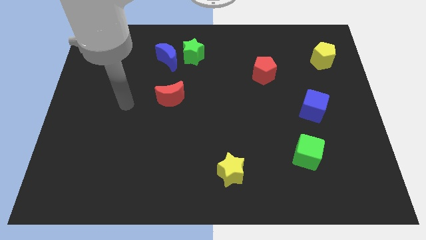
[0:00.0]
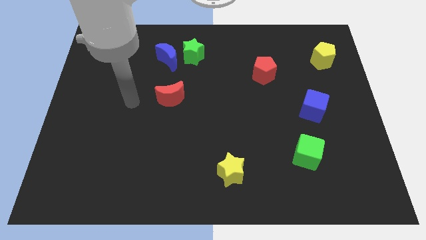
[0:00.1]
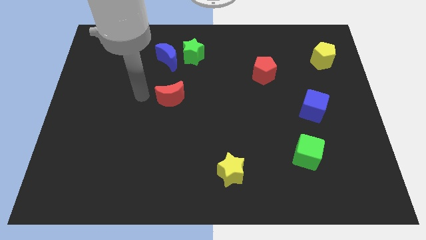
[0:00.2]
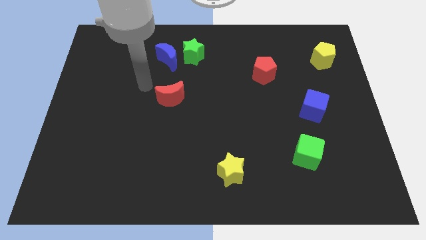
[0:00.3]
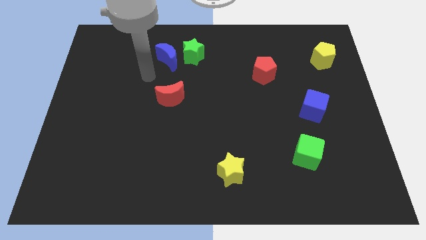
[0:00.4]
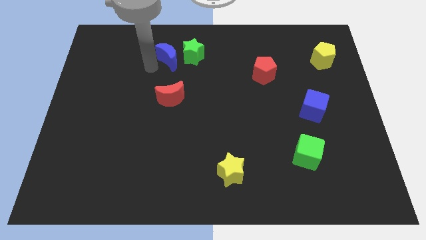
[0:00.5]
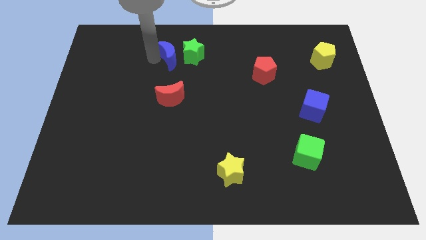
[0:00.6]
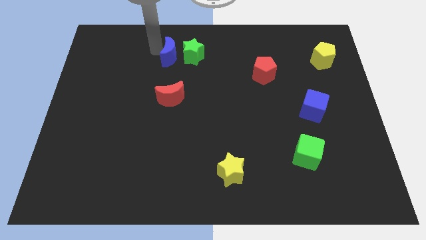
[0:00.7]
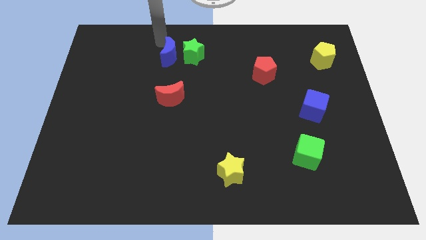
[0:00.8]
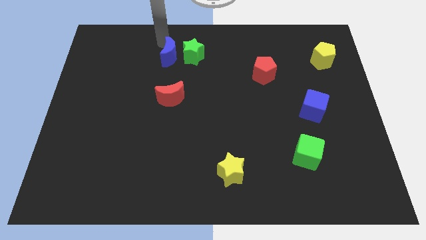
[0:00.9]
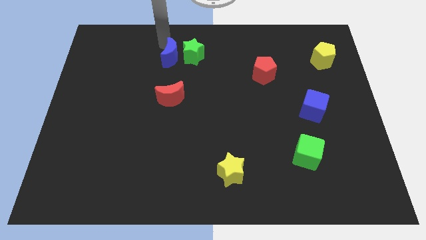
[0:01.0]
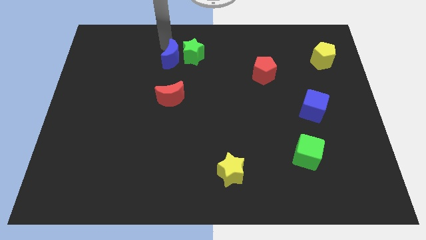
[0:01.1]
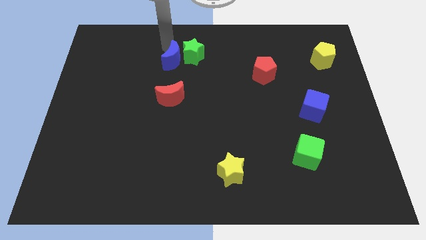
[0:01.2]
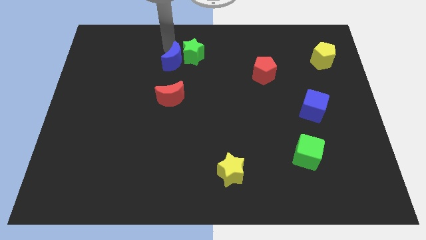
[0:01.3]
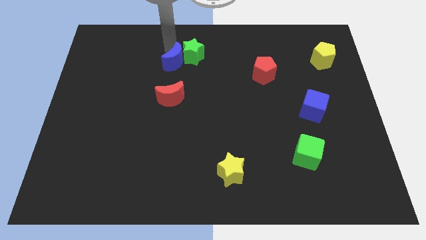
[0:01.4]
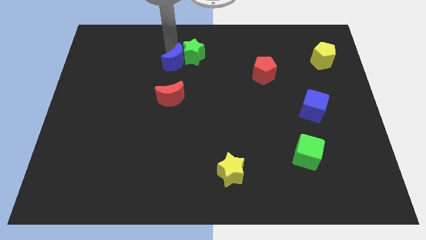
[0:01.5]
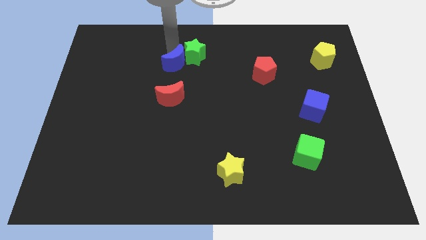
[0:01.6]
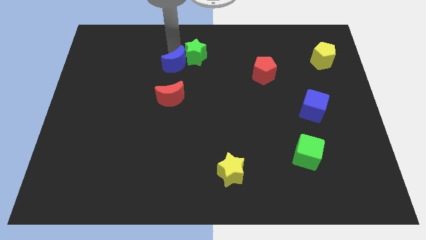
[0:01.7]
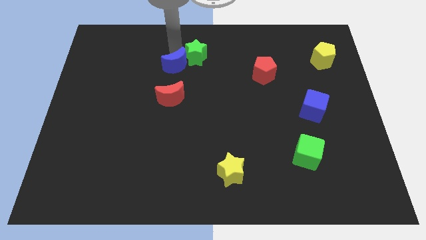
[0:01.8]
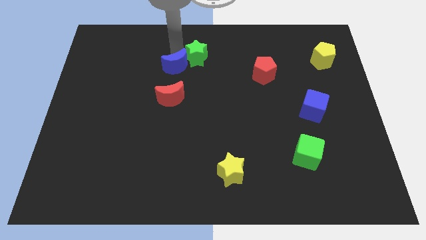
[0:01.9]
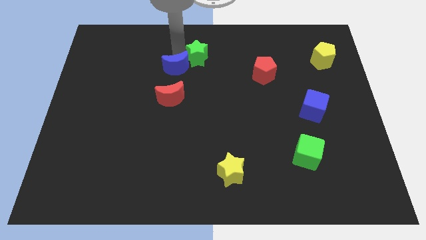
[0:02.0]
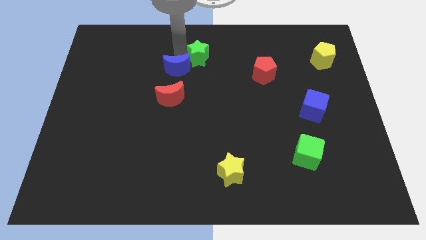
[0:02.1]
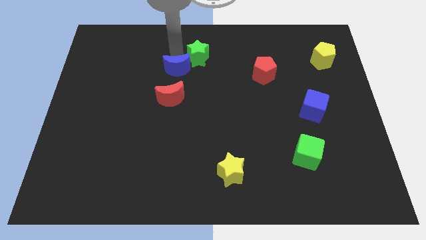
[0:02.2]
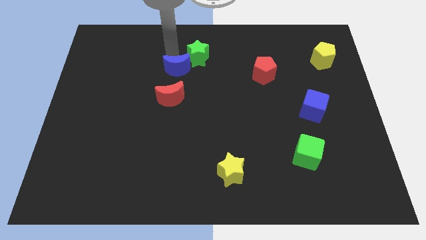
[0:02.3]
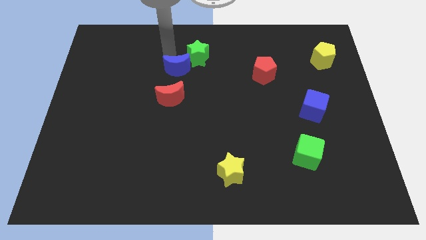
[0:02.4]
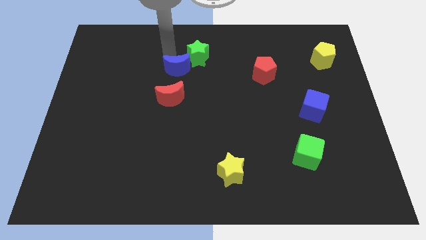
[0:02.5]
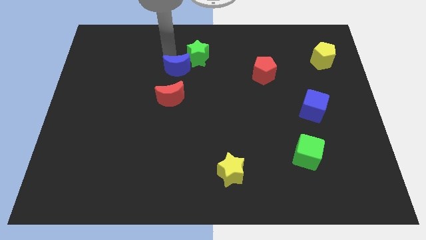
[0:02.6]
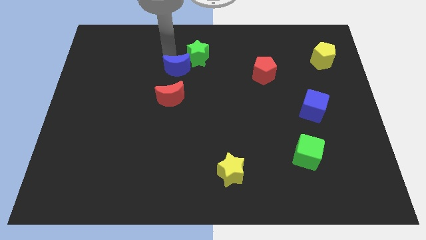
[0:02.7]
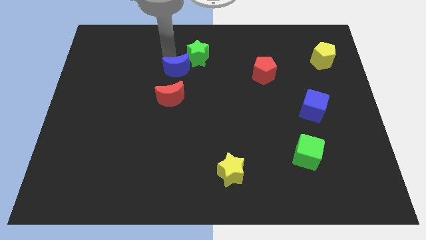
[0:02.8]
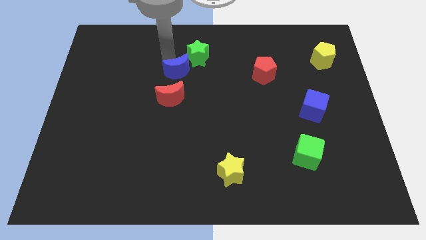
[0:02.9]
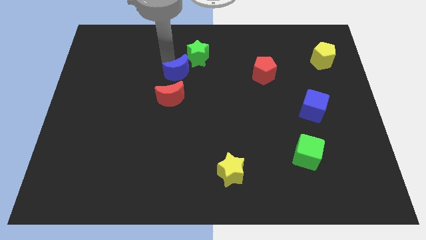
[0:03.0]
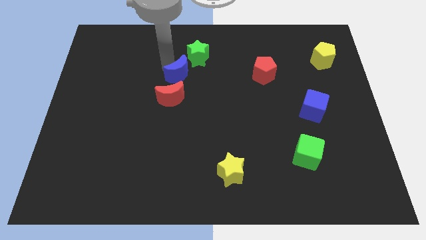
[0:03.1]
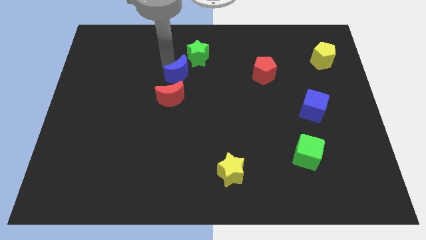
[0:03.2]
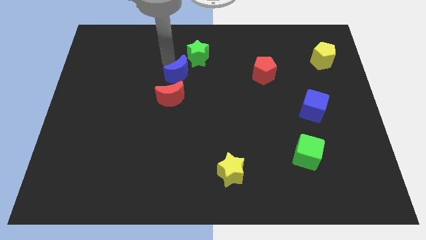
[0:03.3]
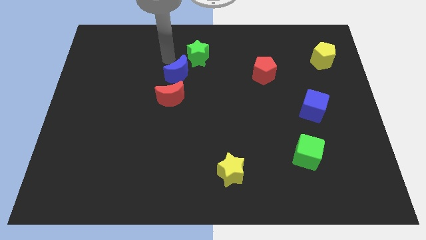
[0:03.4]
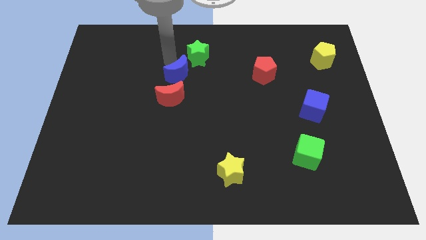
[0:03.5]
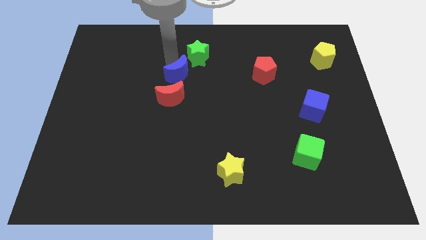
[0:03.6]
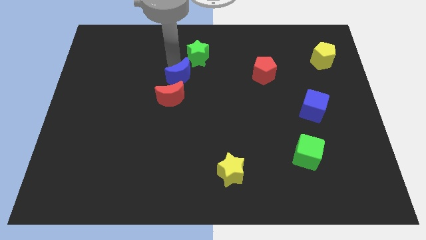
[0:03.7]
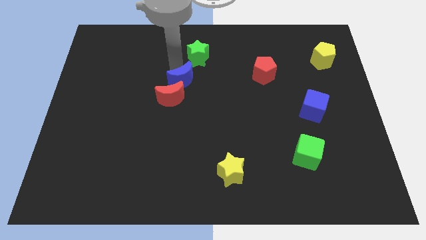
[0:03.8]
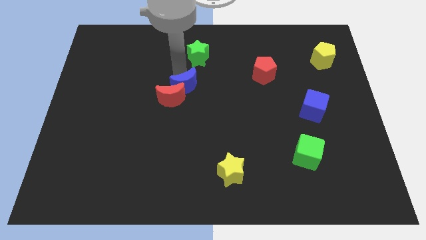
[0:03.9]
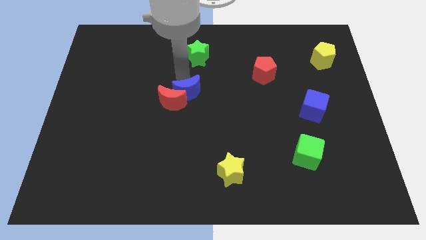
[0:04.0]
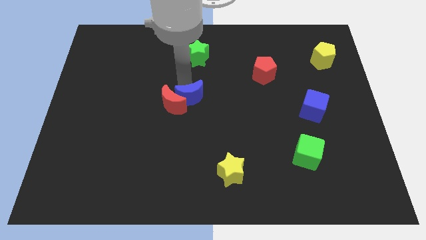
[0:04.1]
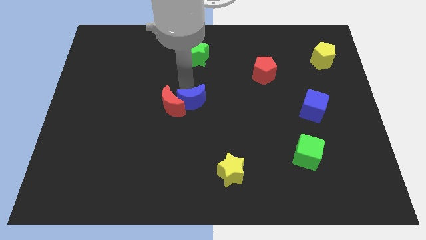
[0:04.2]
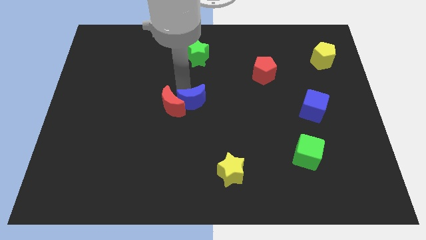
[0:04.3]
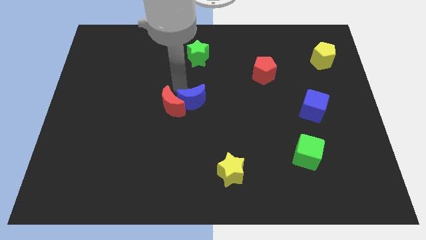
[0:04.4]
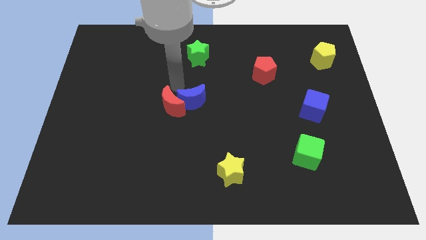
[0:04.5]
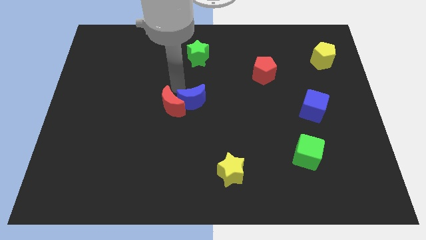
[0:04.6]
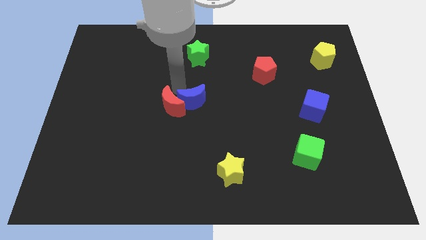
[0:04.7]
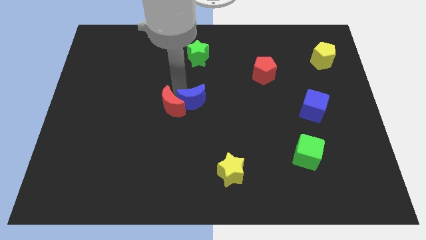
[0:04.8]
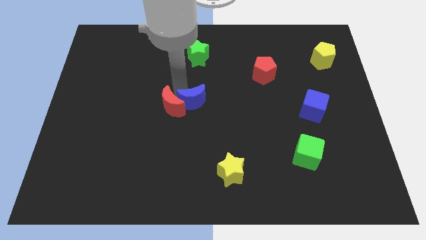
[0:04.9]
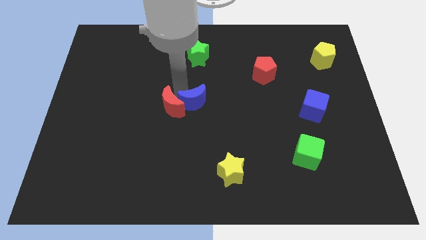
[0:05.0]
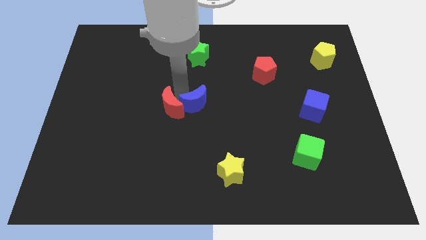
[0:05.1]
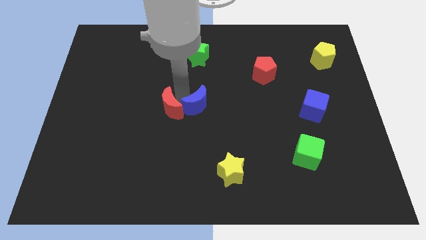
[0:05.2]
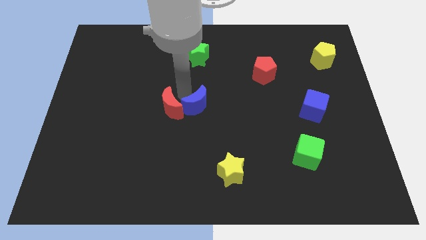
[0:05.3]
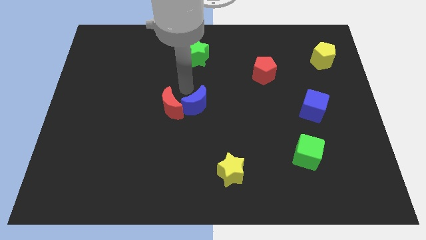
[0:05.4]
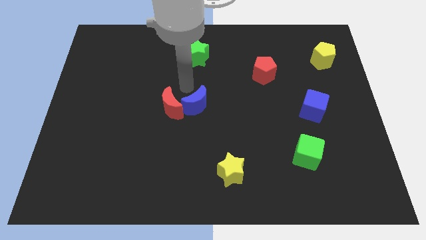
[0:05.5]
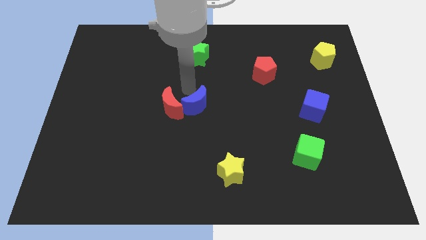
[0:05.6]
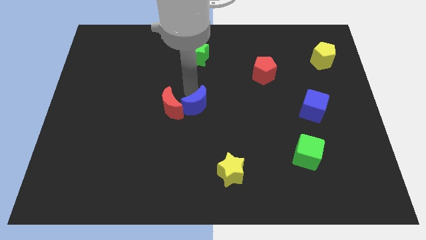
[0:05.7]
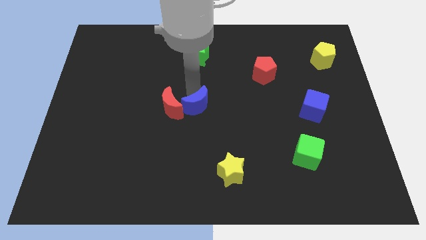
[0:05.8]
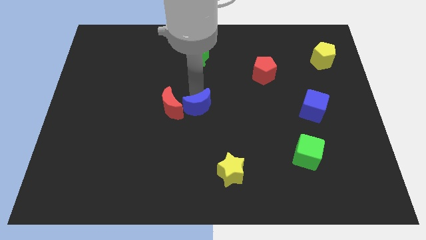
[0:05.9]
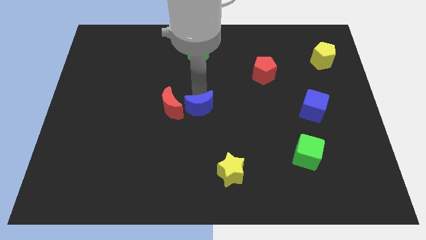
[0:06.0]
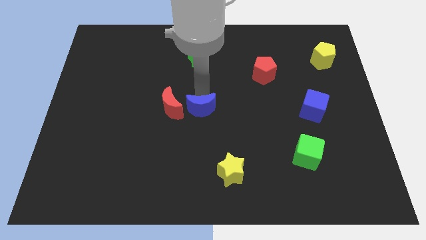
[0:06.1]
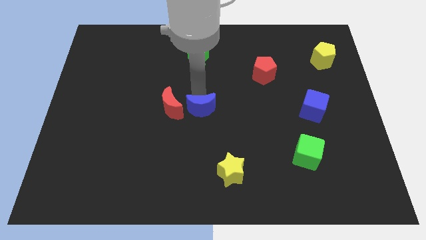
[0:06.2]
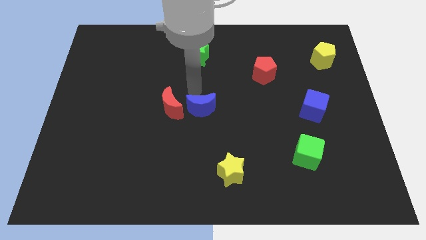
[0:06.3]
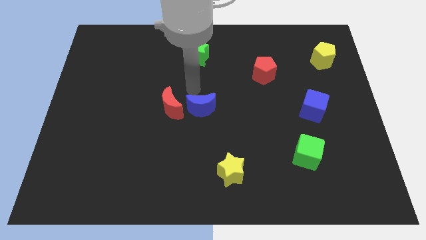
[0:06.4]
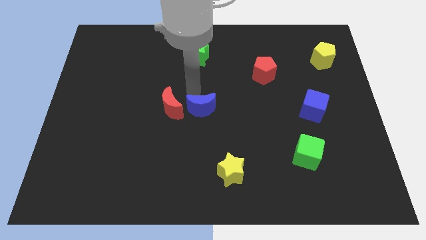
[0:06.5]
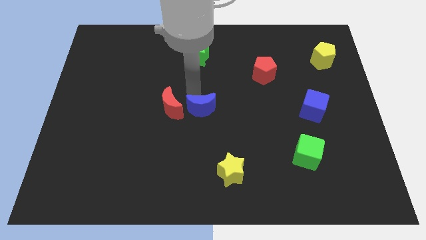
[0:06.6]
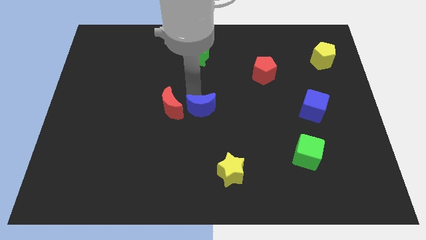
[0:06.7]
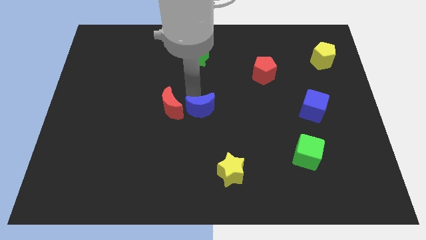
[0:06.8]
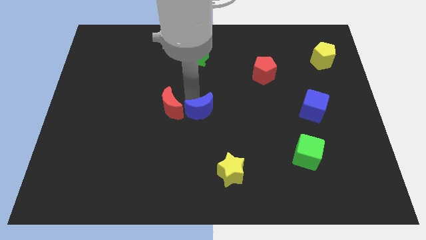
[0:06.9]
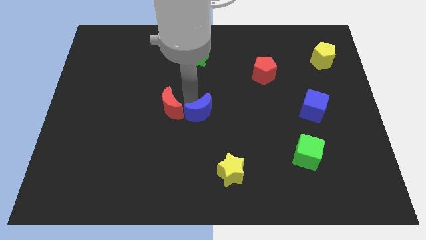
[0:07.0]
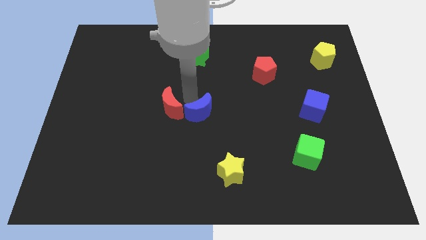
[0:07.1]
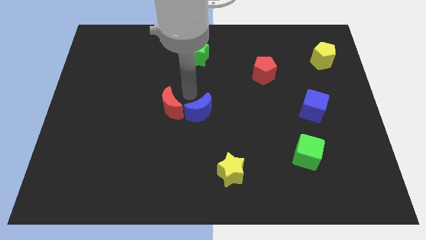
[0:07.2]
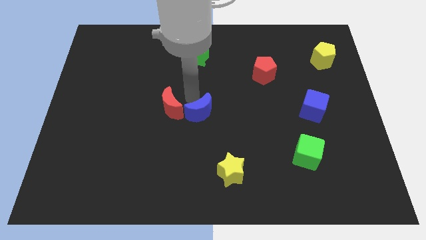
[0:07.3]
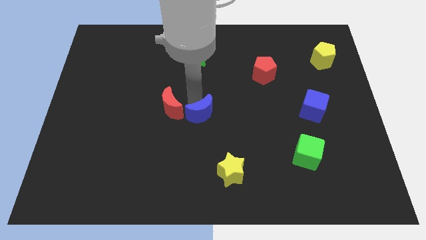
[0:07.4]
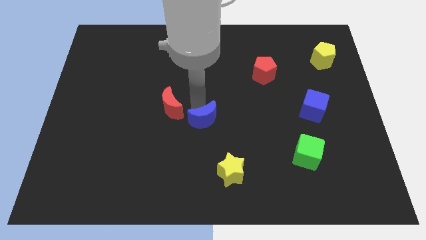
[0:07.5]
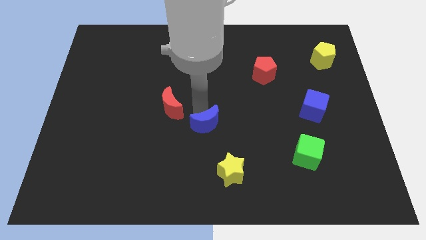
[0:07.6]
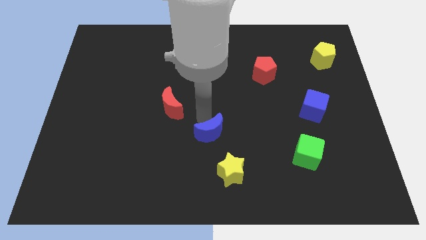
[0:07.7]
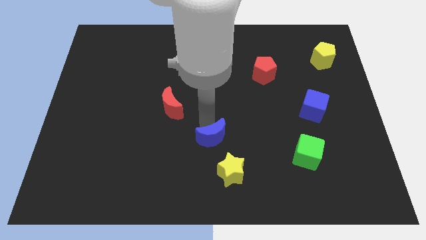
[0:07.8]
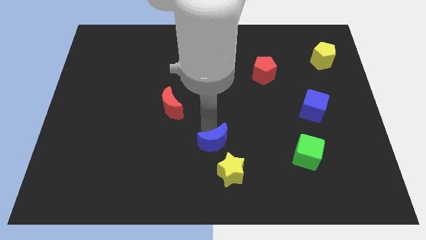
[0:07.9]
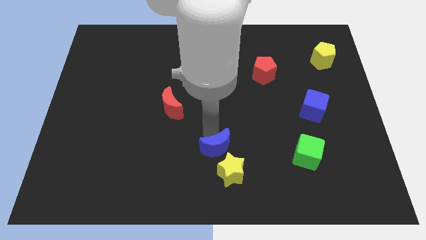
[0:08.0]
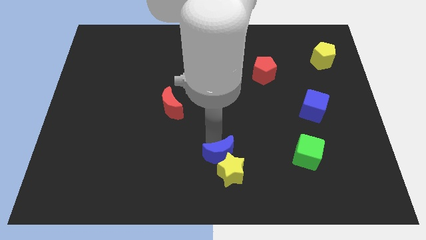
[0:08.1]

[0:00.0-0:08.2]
slide the blue moon next to the yellow star

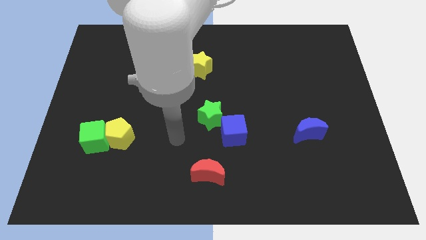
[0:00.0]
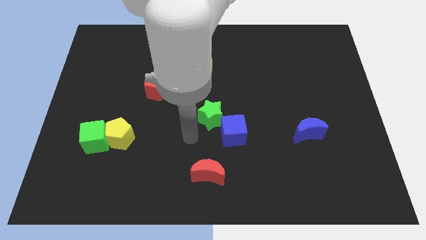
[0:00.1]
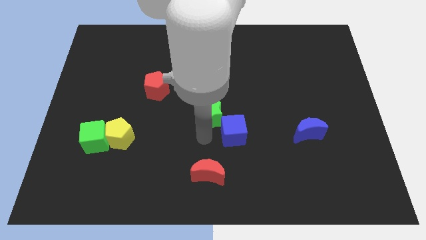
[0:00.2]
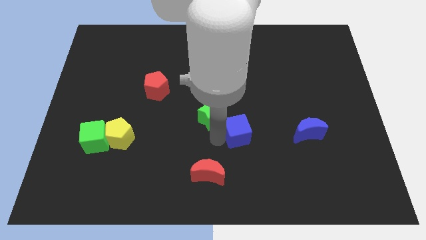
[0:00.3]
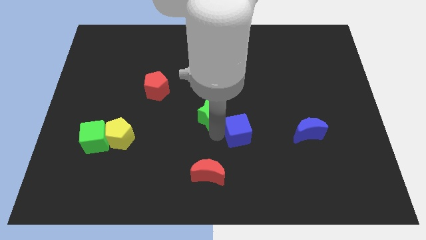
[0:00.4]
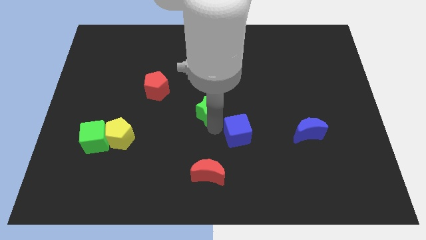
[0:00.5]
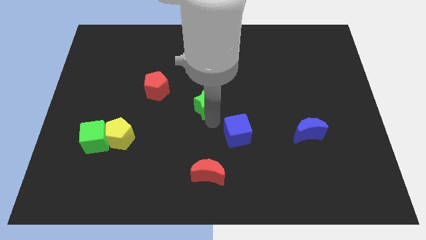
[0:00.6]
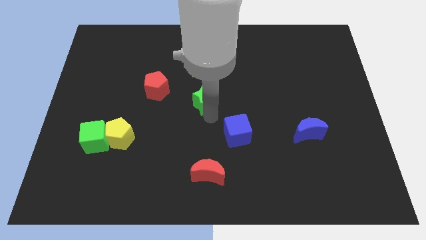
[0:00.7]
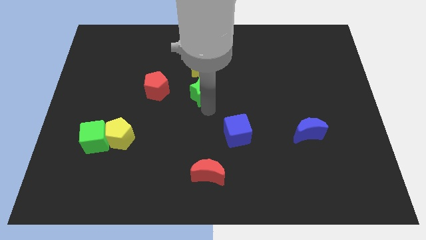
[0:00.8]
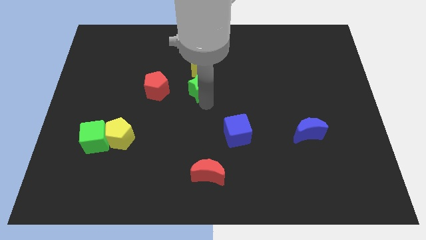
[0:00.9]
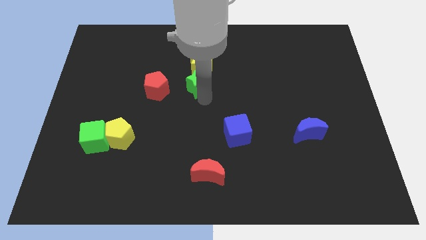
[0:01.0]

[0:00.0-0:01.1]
slide the green star next to the yellow star
